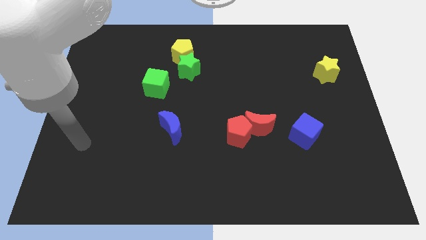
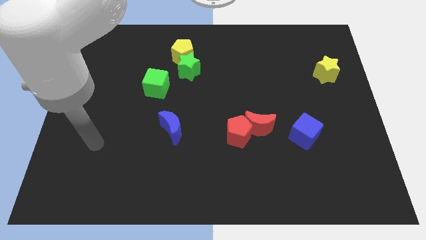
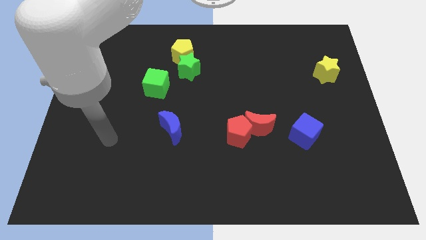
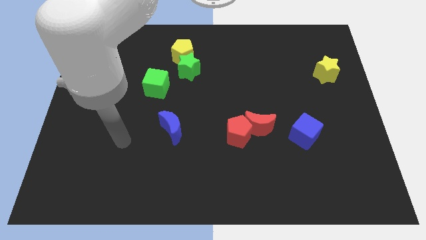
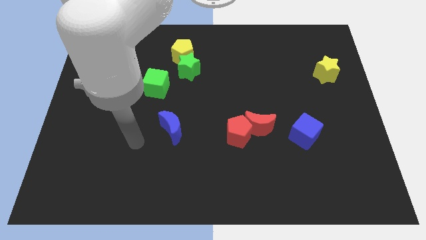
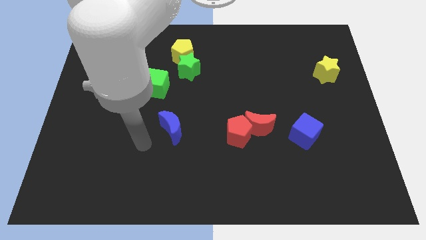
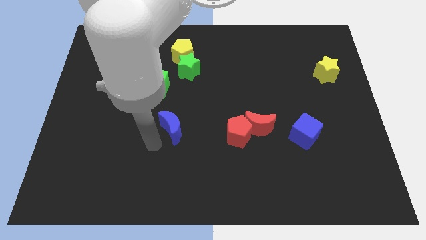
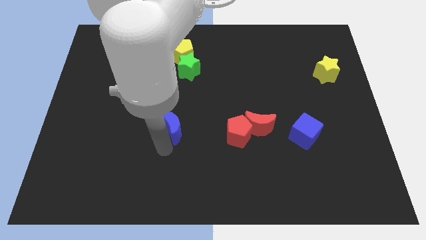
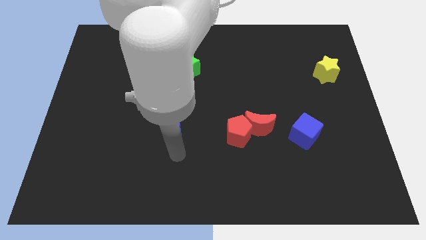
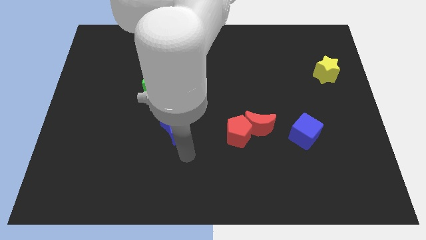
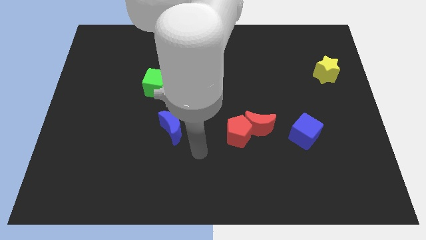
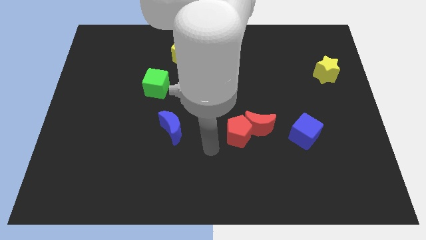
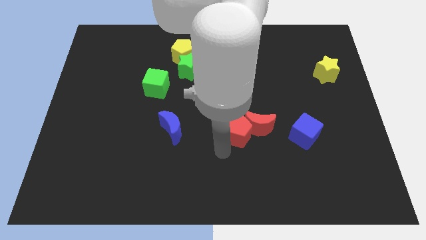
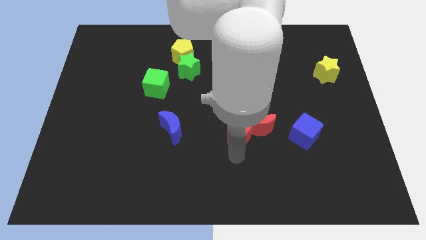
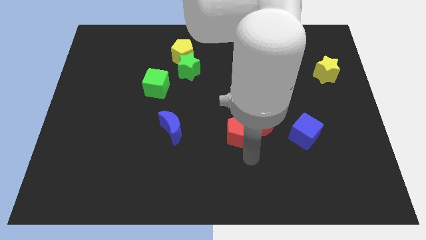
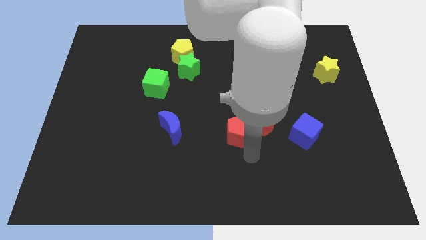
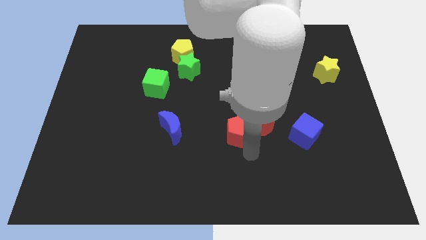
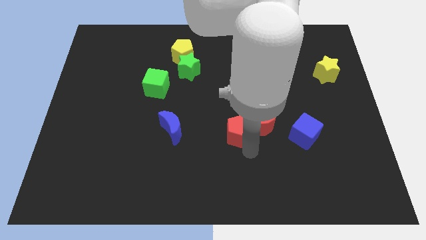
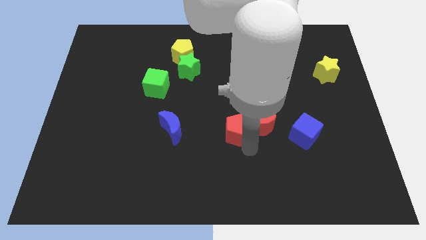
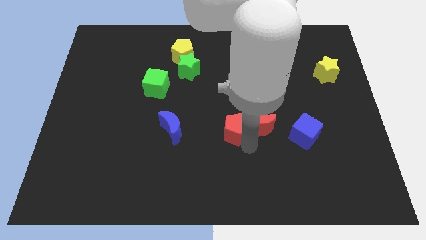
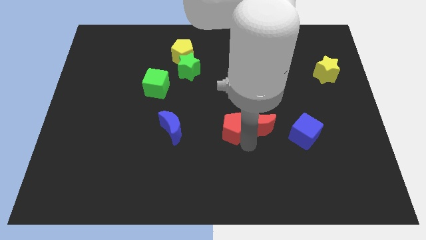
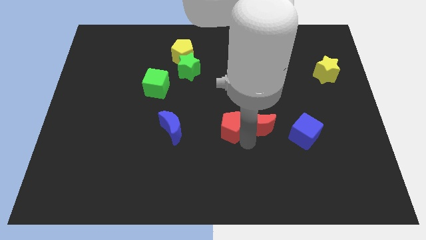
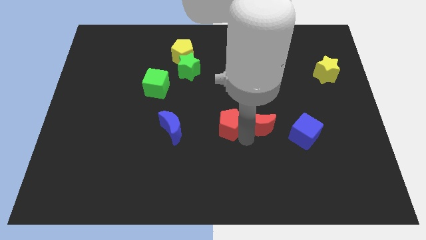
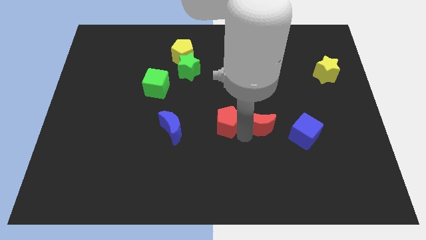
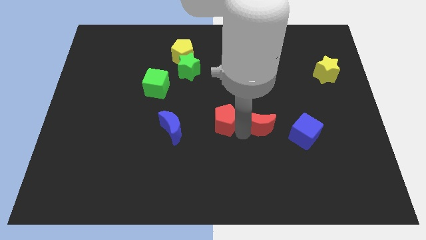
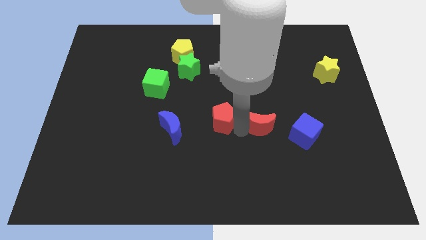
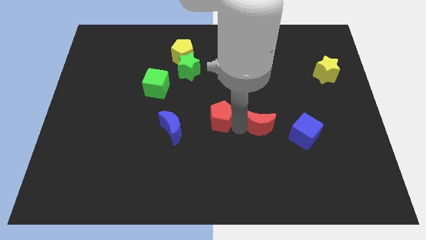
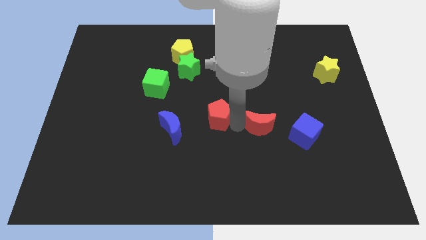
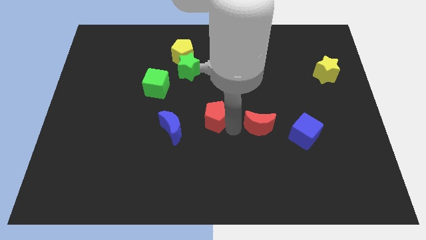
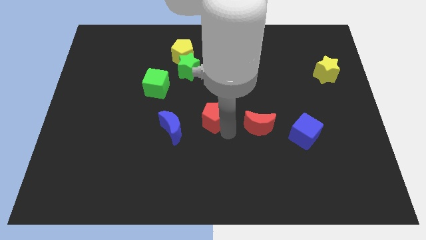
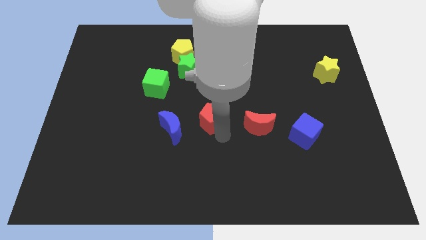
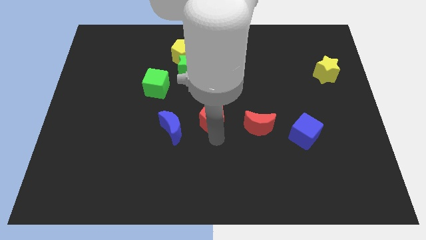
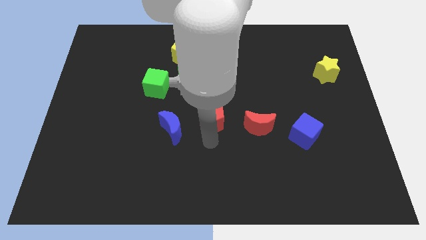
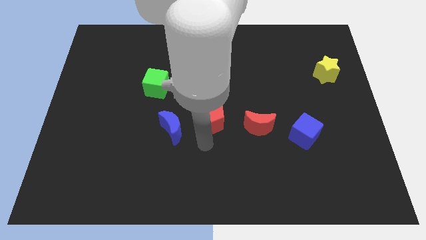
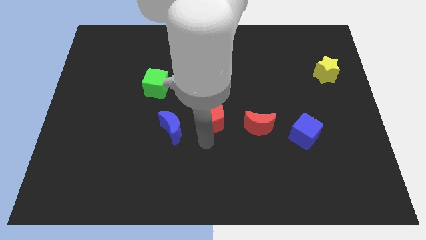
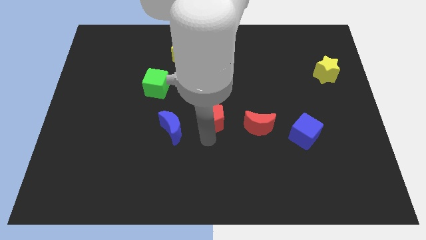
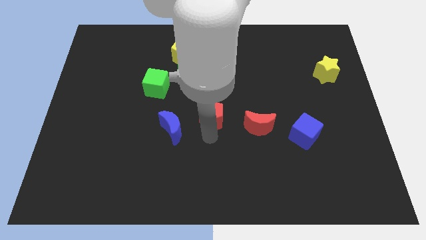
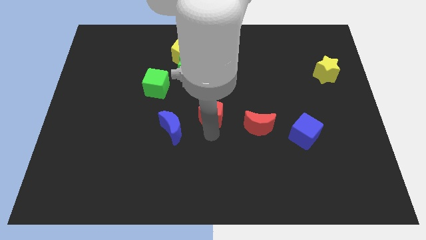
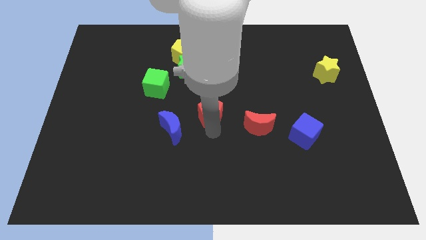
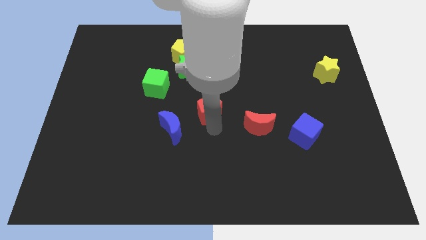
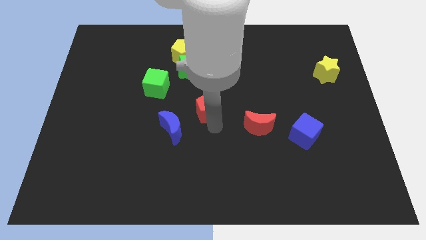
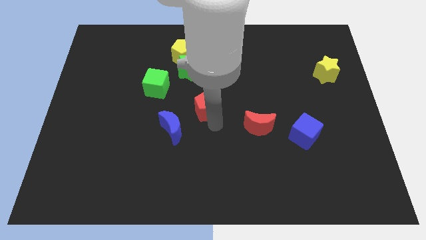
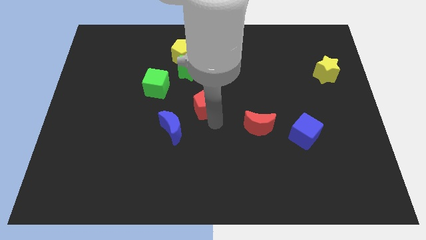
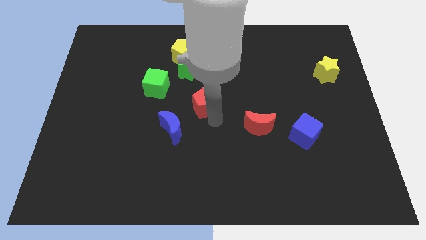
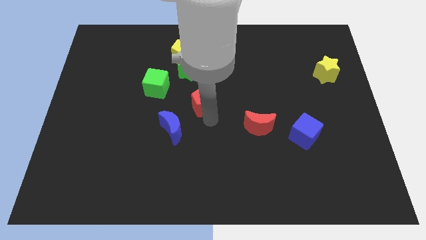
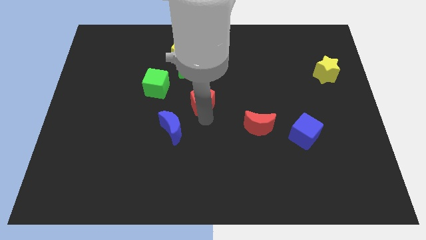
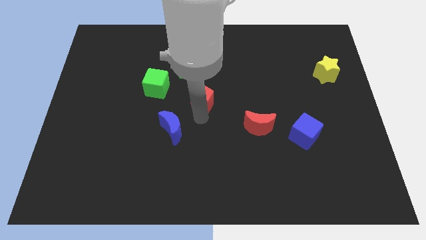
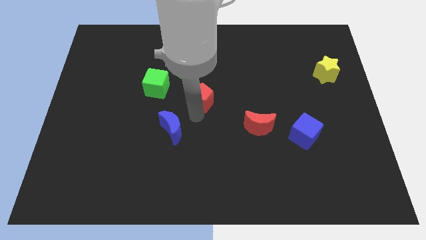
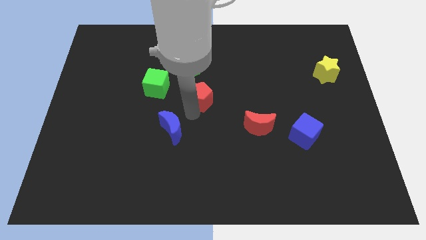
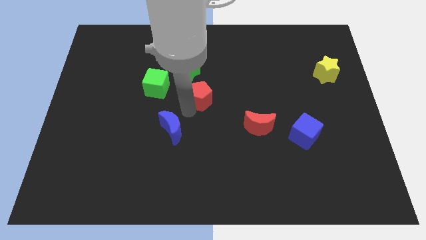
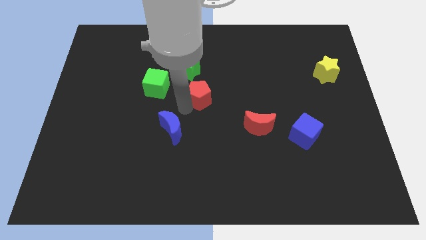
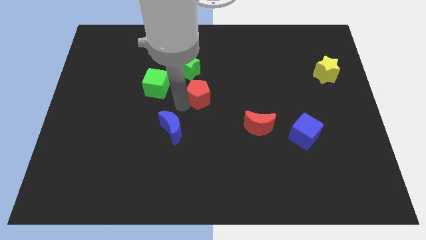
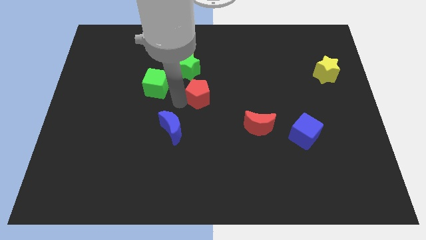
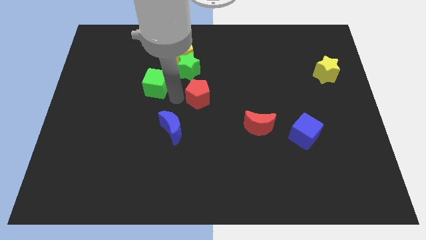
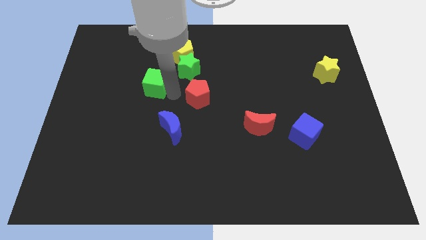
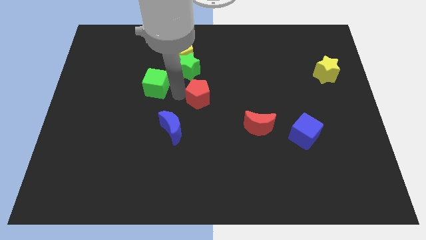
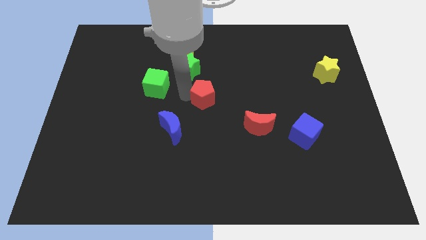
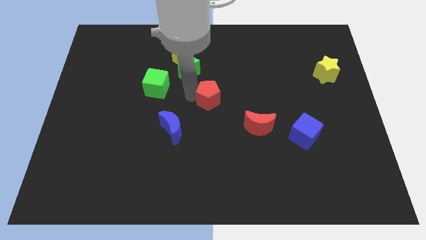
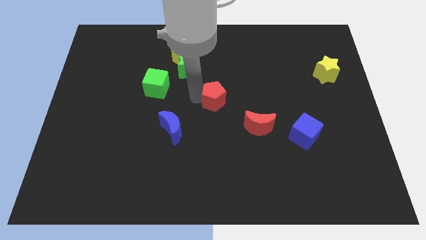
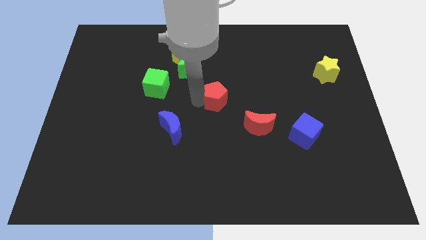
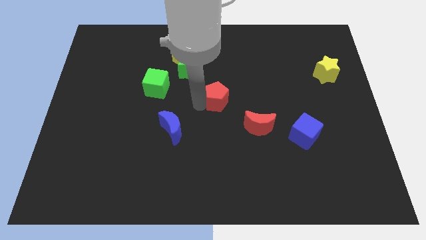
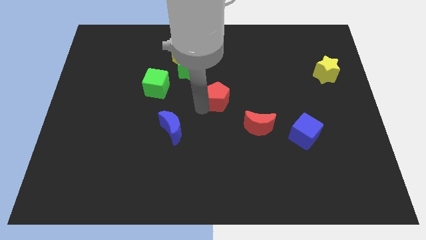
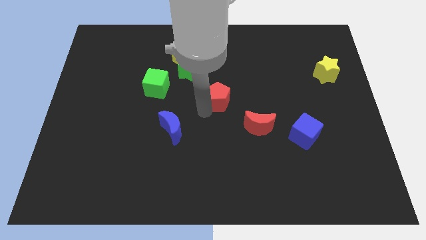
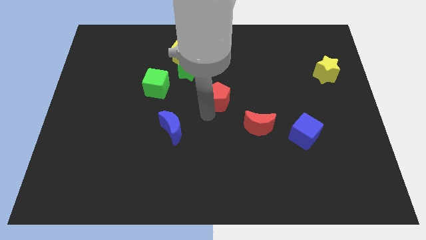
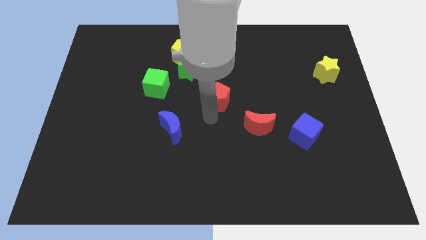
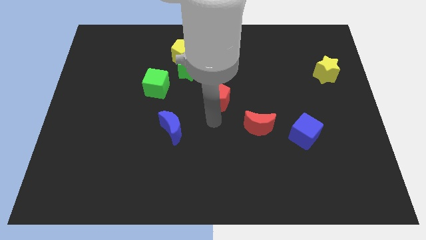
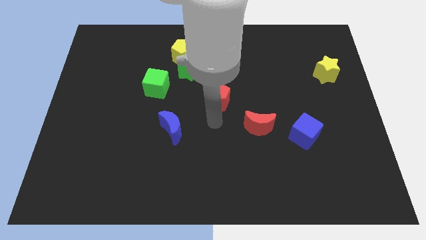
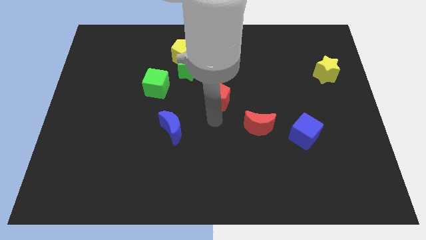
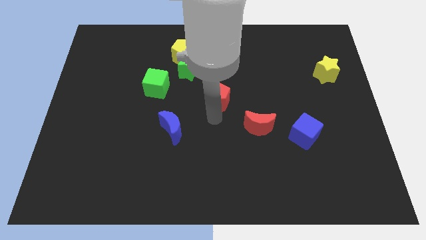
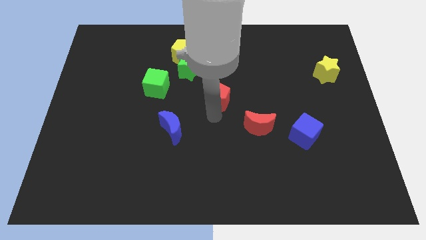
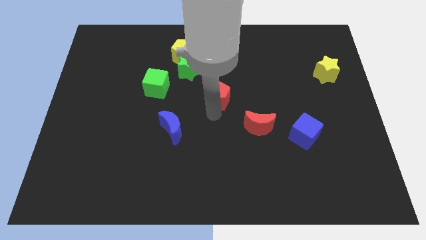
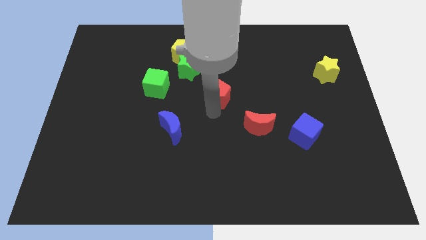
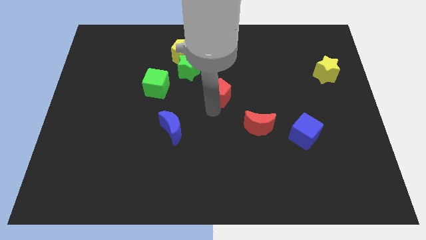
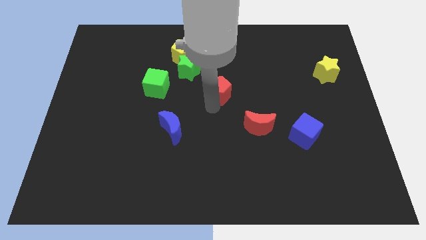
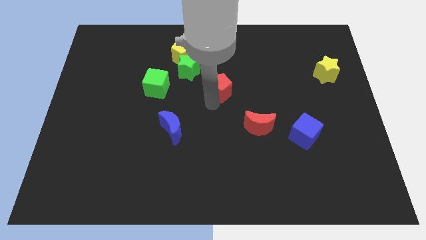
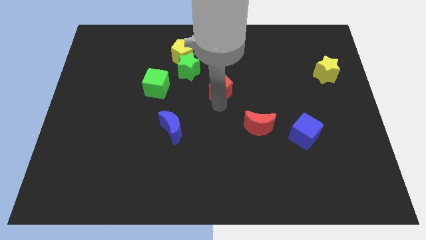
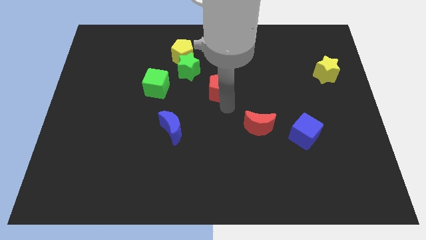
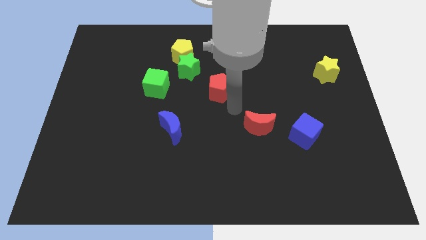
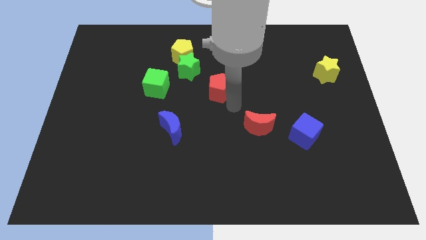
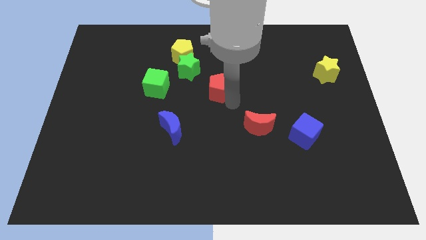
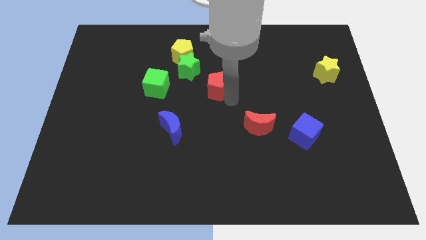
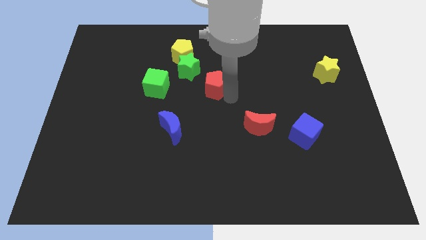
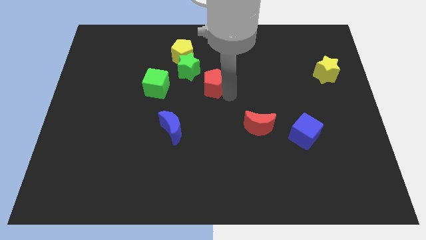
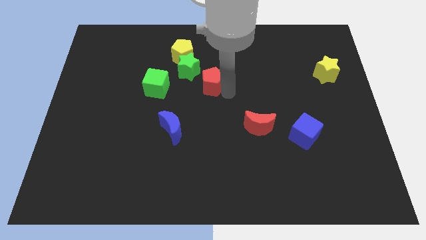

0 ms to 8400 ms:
slide the red pentagon diagonally down and to the right of the yellow pentagon
